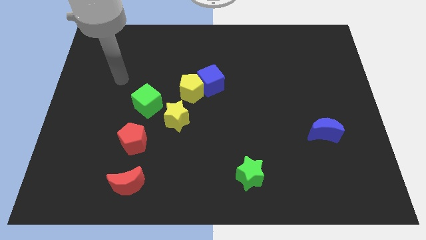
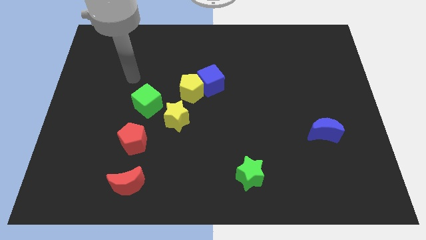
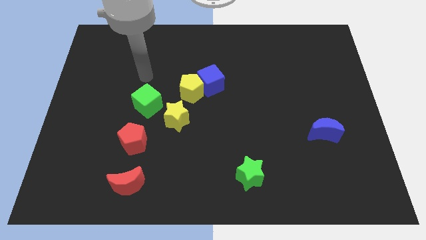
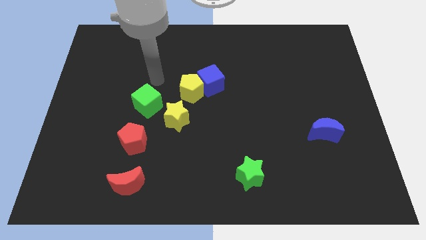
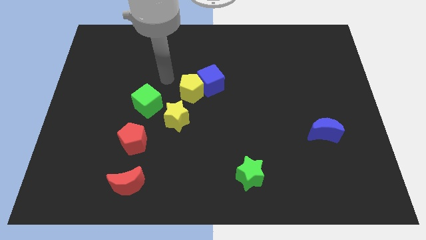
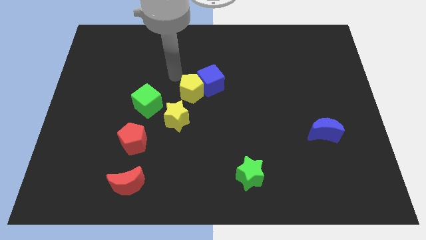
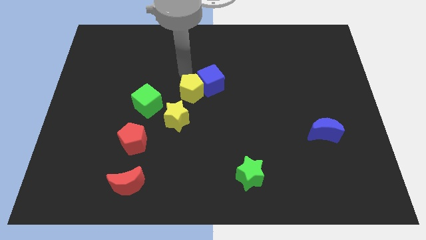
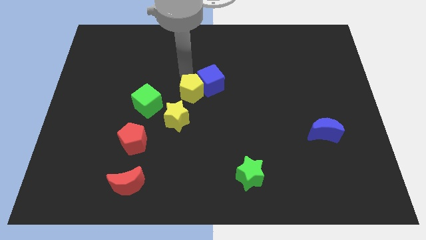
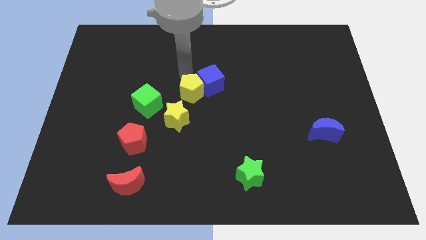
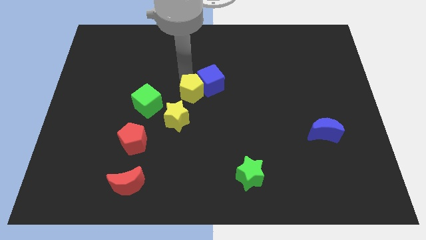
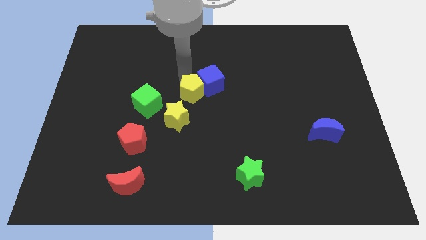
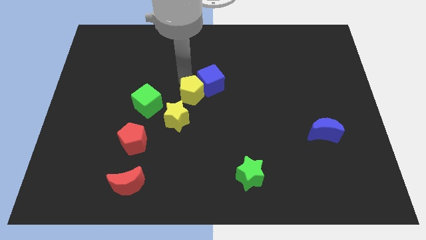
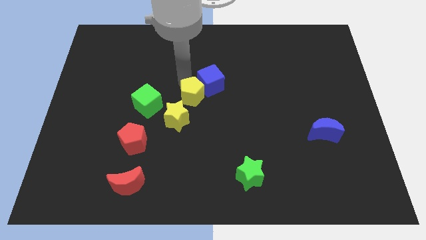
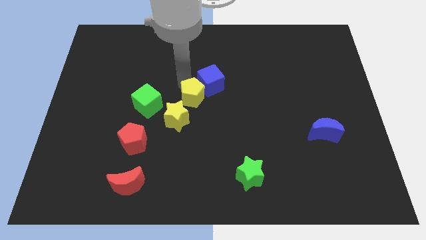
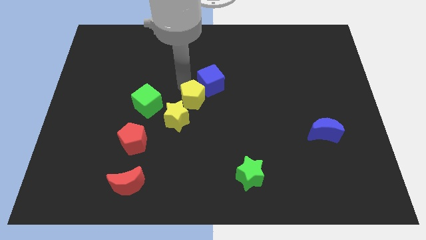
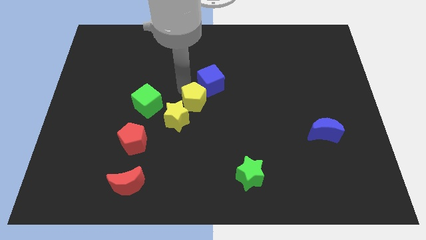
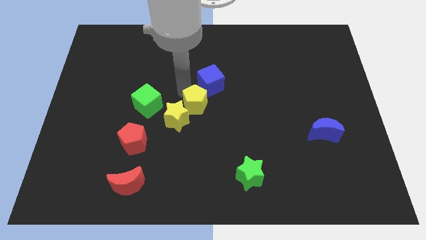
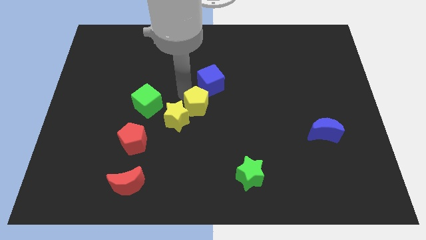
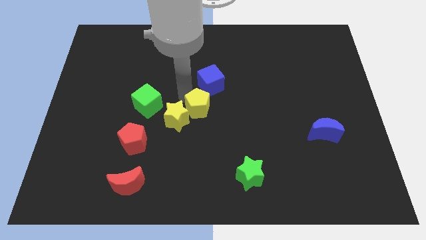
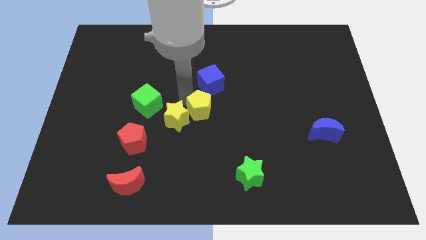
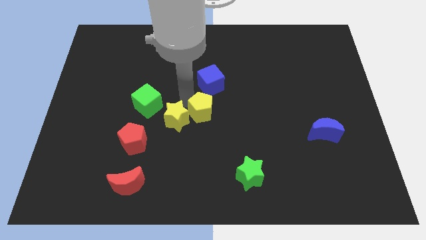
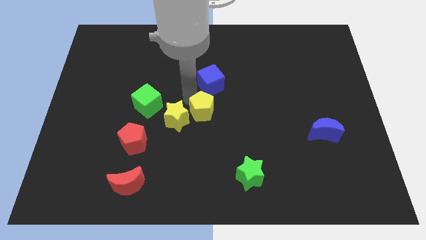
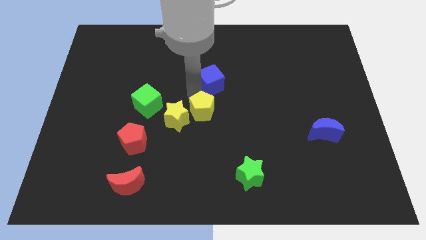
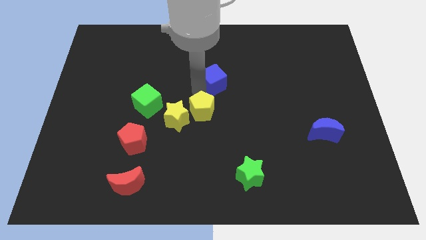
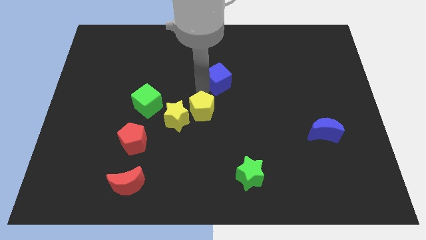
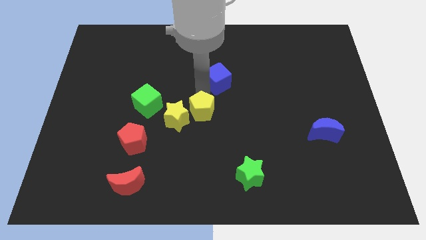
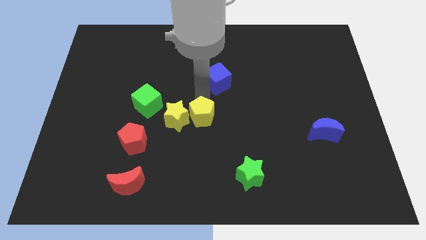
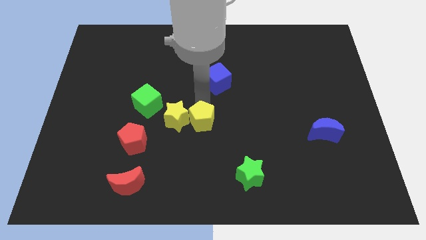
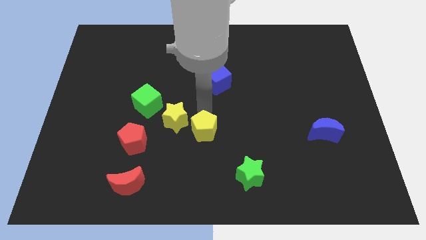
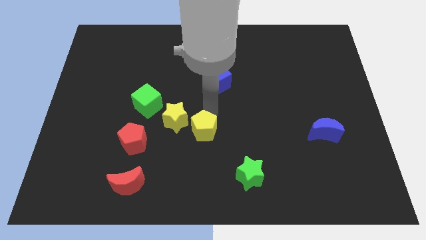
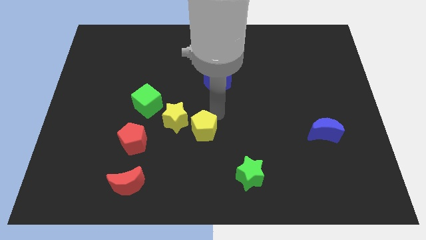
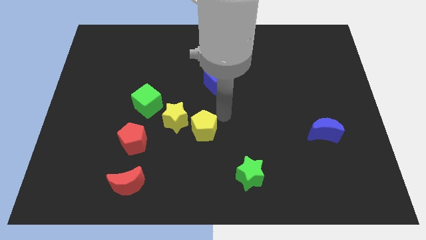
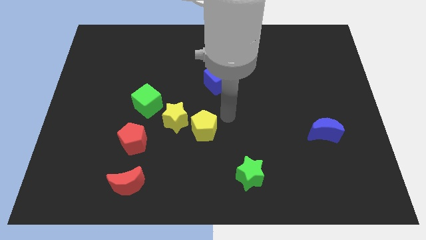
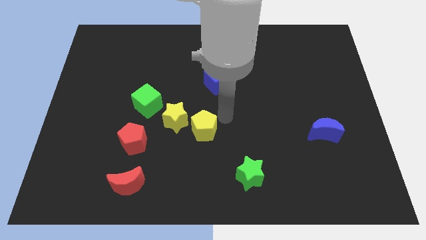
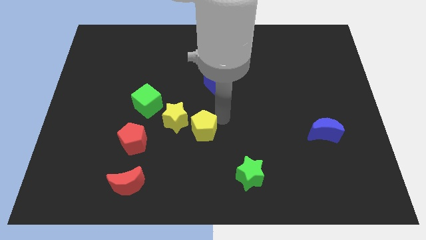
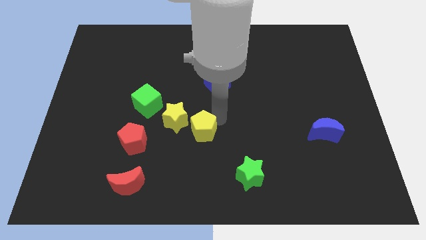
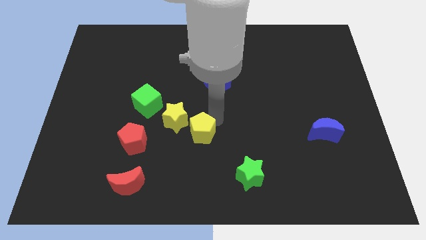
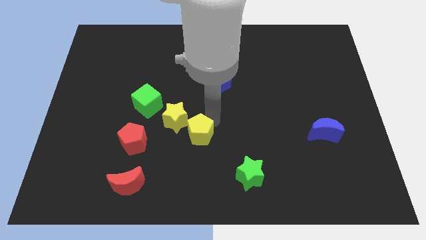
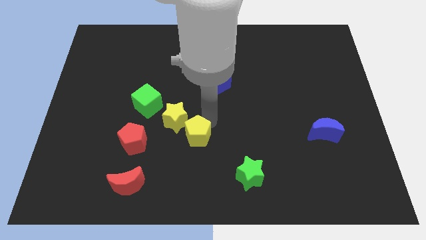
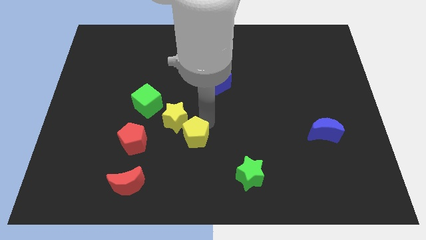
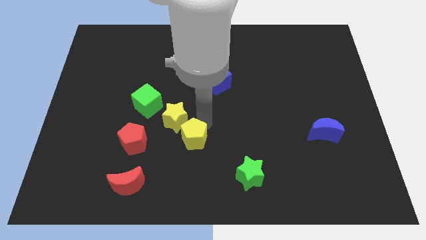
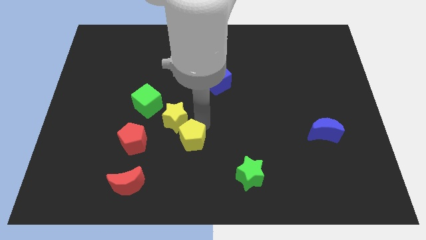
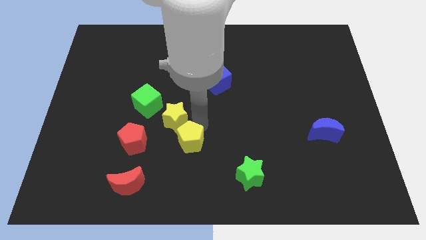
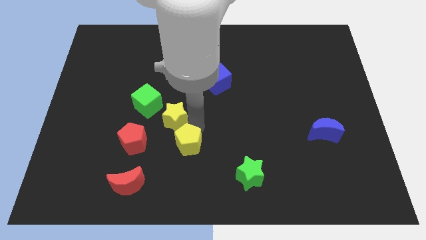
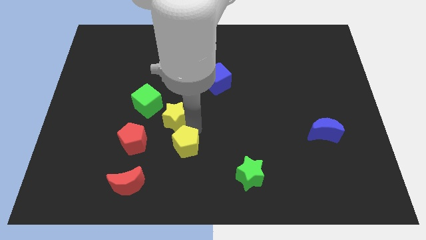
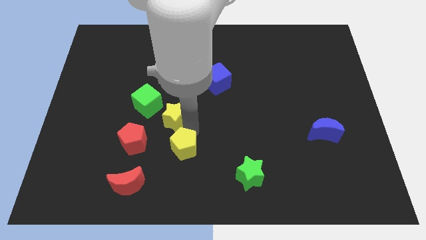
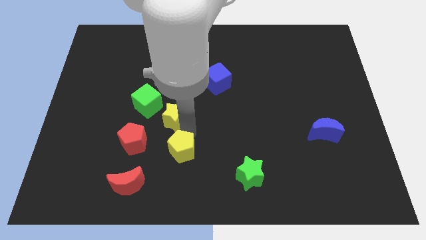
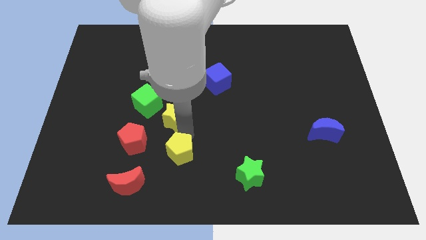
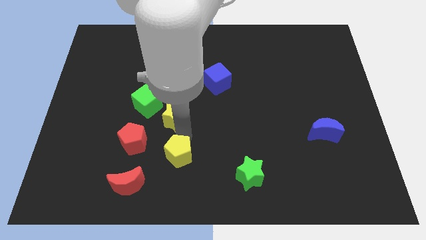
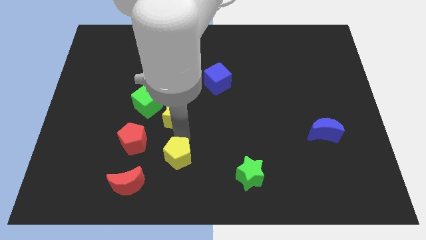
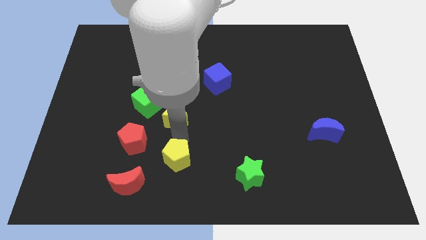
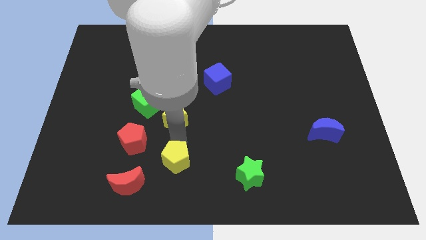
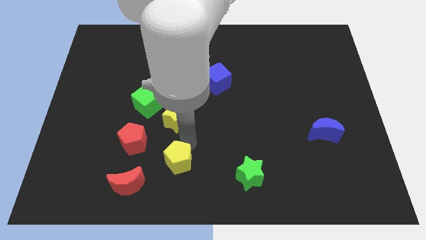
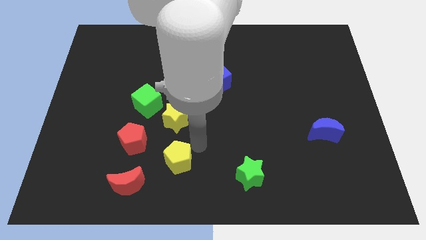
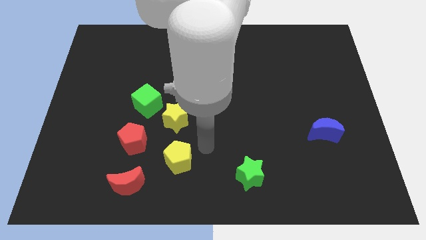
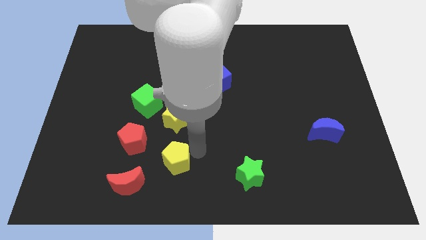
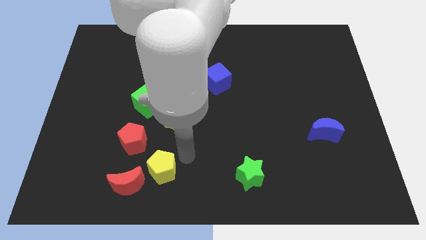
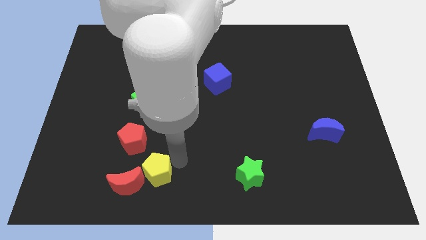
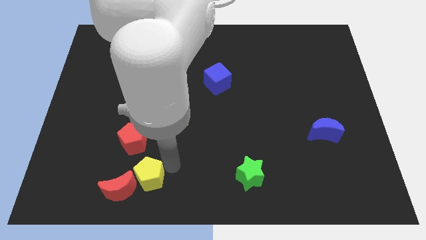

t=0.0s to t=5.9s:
move the yellow pentagon towards the red moon

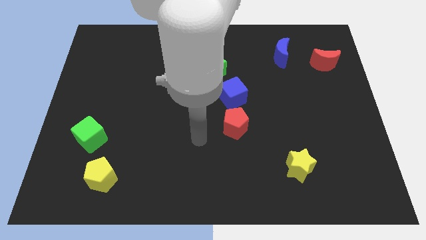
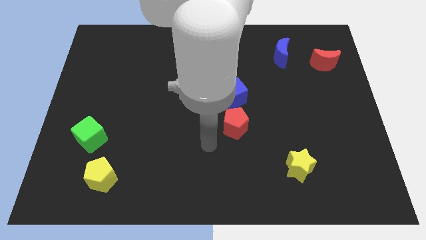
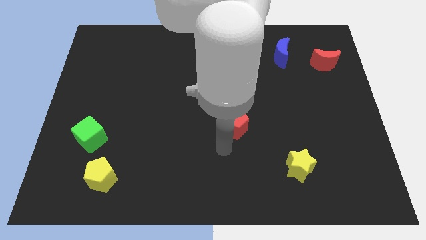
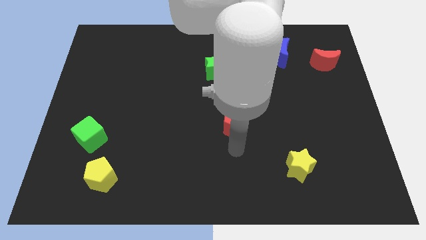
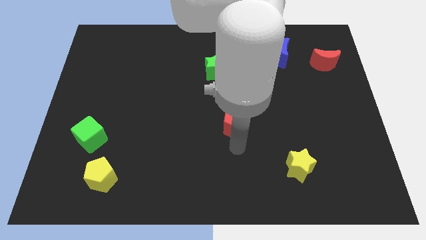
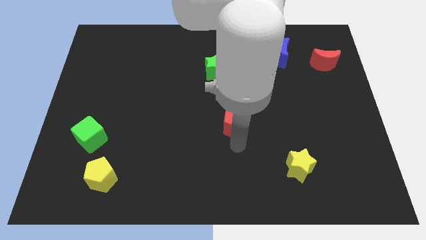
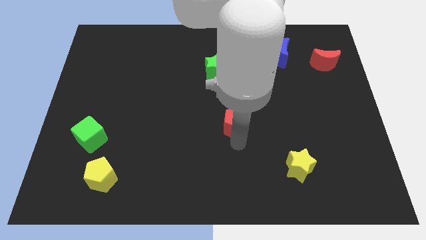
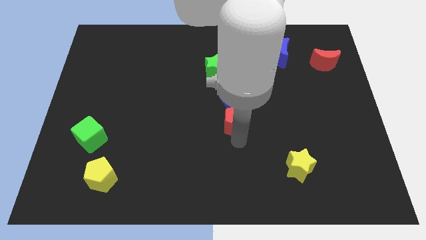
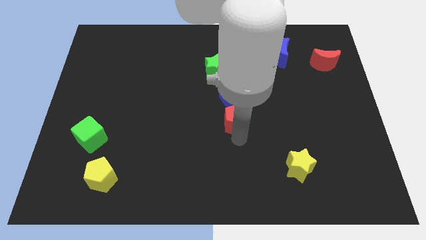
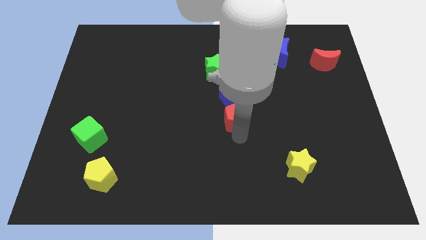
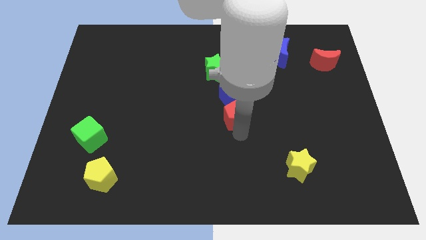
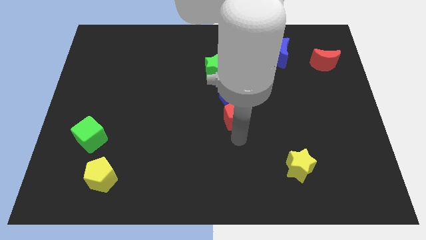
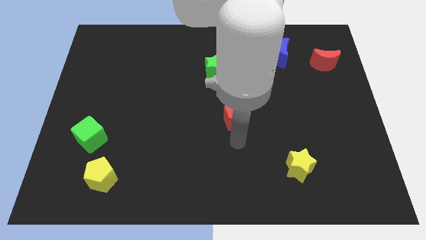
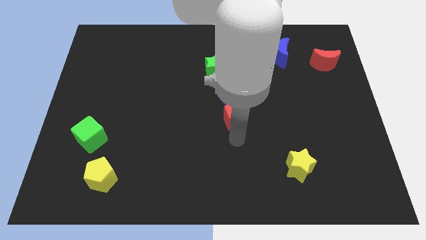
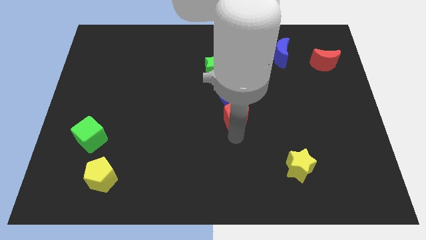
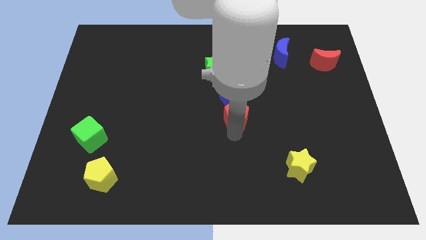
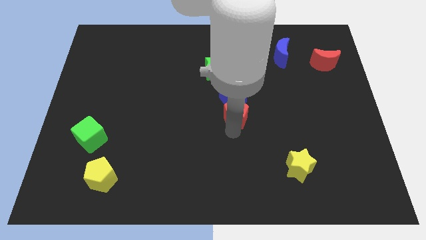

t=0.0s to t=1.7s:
move the red pentagon to the blue cube
